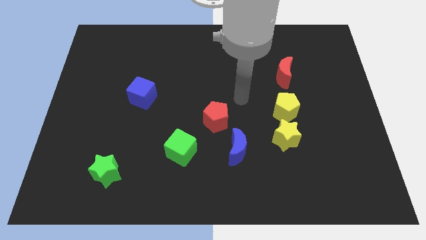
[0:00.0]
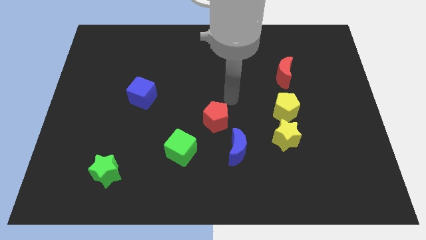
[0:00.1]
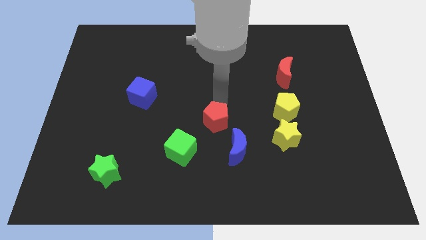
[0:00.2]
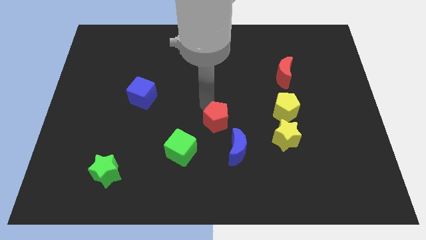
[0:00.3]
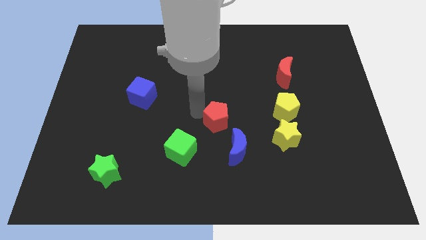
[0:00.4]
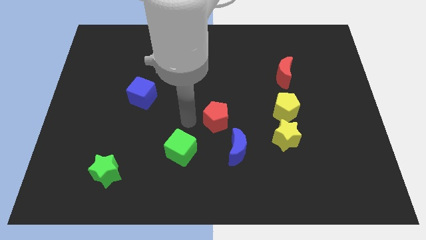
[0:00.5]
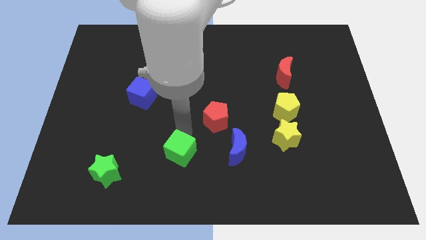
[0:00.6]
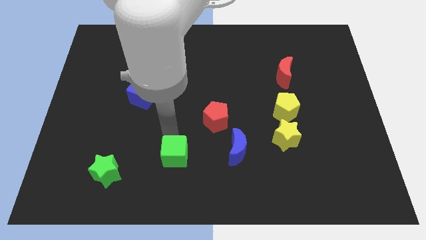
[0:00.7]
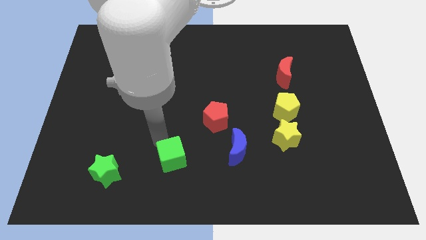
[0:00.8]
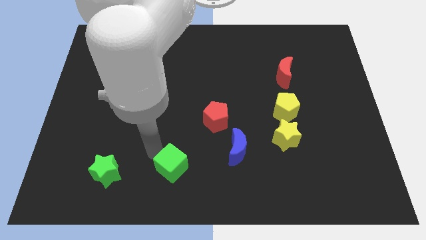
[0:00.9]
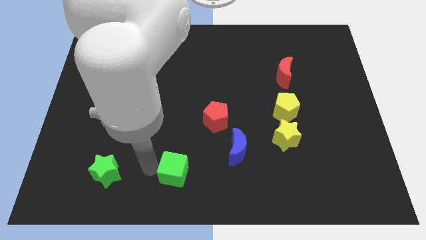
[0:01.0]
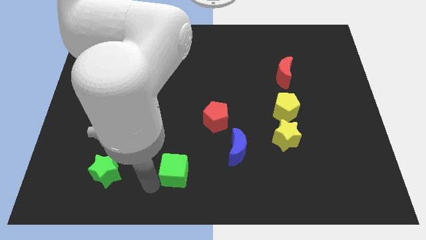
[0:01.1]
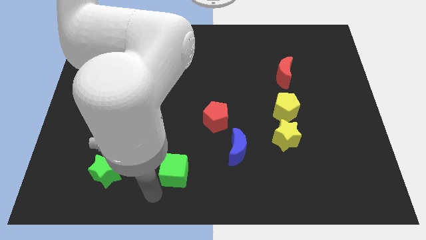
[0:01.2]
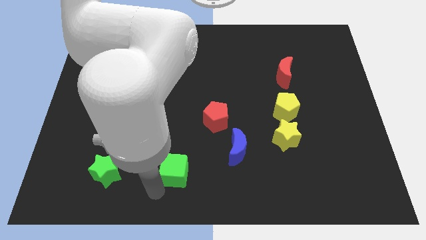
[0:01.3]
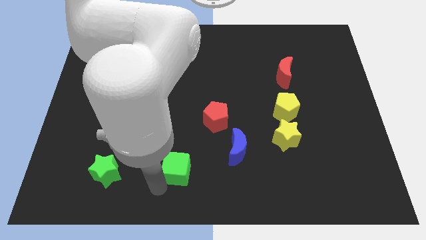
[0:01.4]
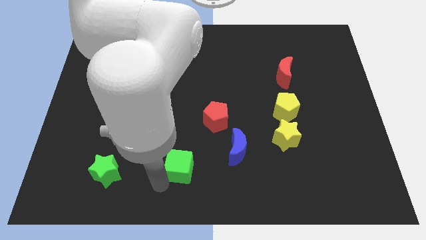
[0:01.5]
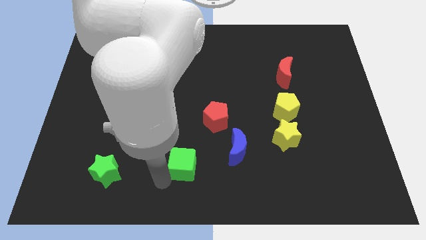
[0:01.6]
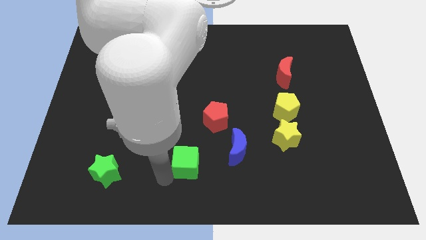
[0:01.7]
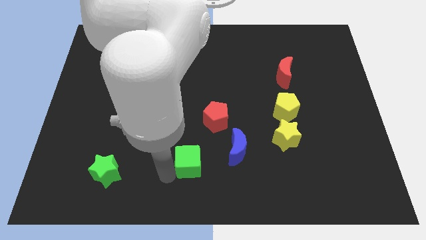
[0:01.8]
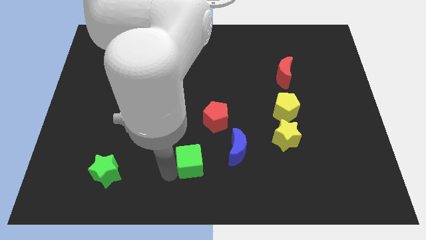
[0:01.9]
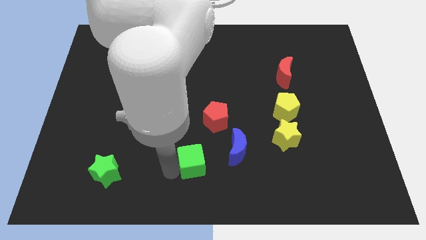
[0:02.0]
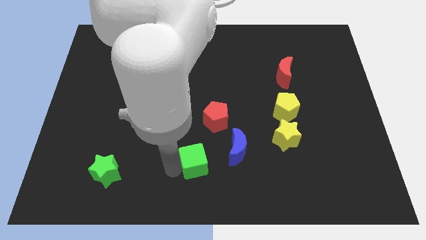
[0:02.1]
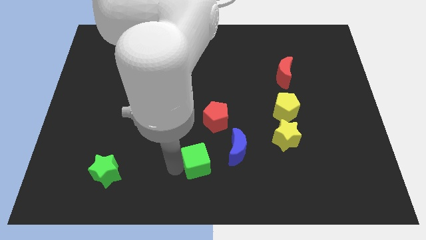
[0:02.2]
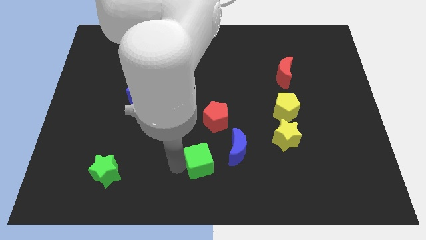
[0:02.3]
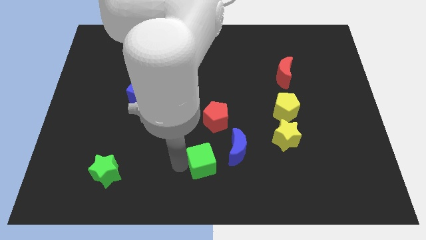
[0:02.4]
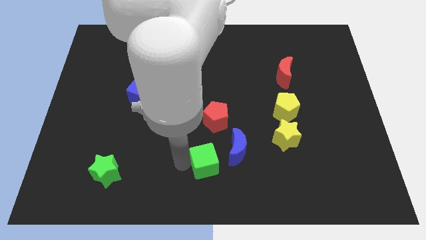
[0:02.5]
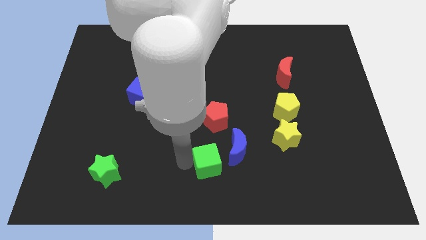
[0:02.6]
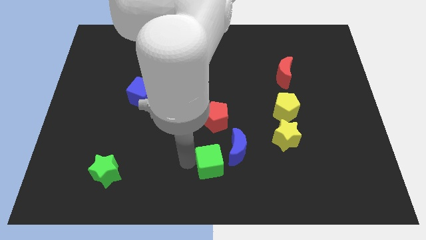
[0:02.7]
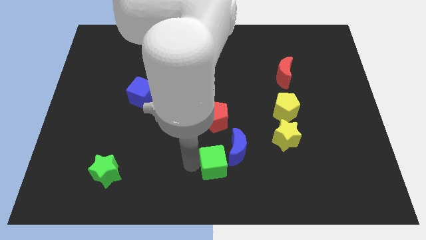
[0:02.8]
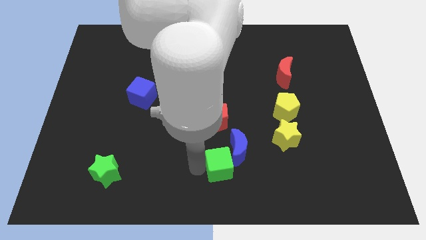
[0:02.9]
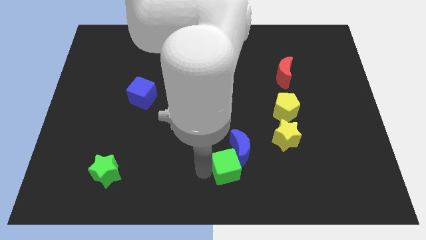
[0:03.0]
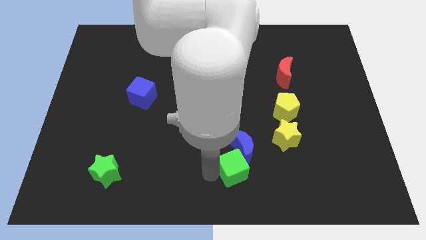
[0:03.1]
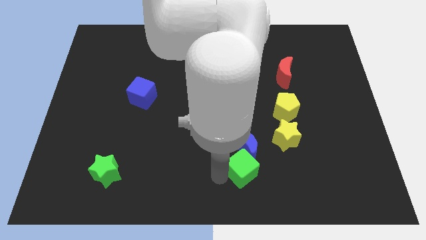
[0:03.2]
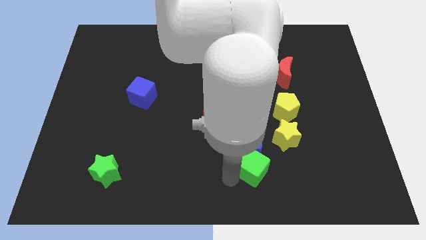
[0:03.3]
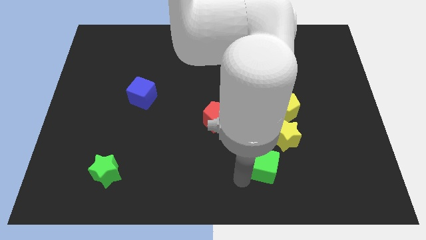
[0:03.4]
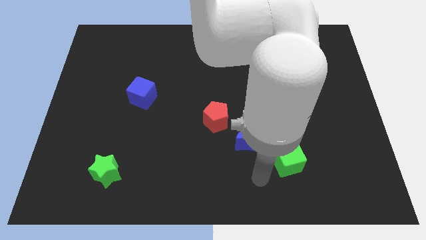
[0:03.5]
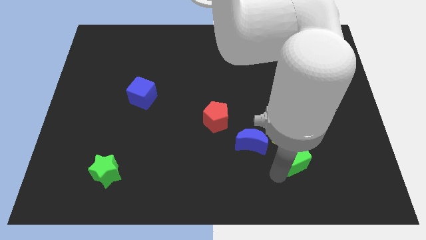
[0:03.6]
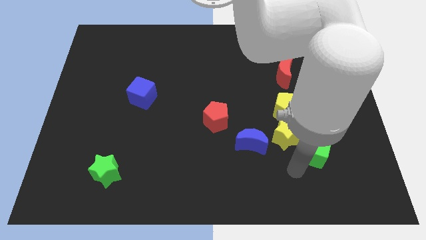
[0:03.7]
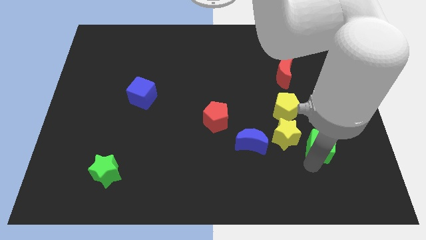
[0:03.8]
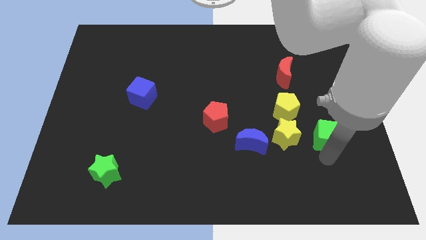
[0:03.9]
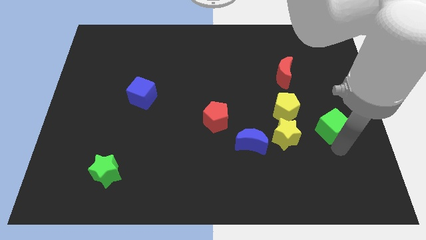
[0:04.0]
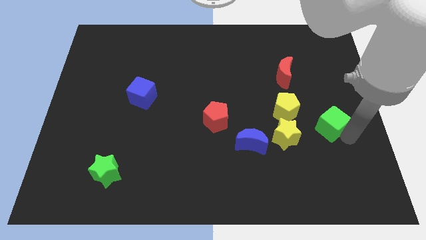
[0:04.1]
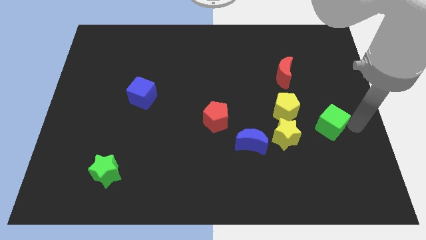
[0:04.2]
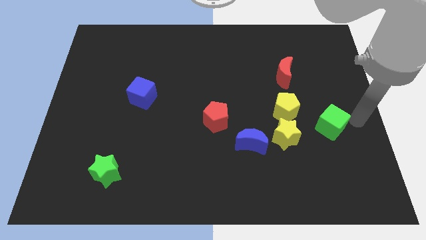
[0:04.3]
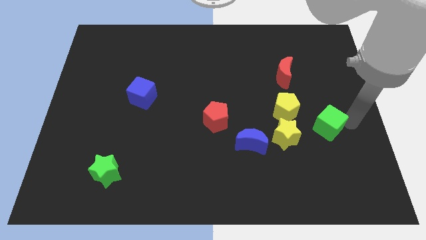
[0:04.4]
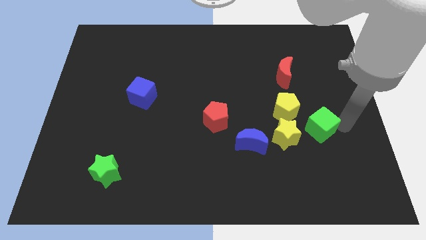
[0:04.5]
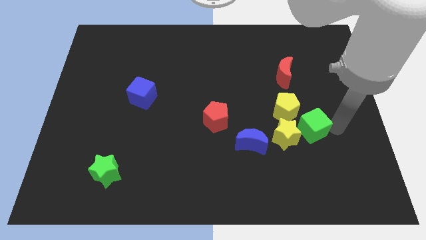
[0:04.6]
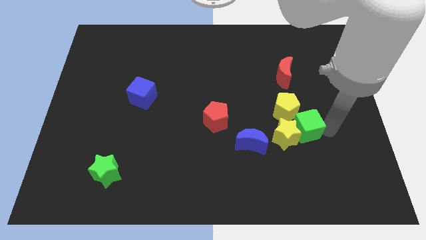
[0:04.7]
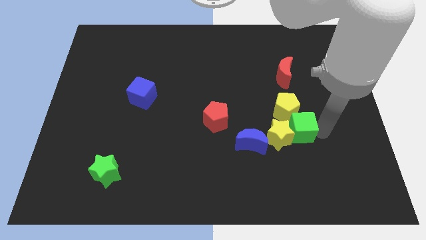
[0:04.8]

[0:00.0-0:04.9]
push the green cube towards the yellow pentagon

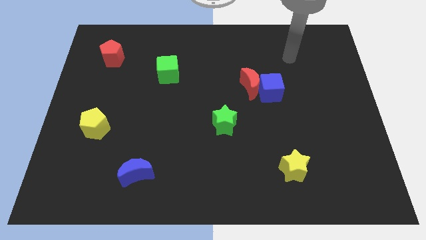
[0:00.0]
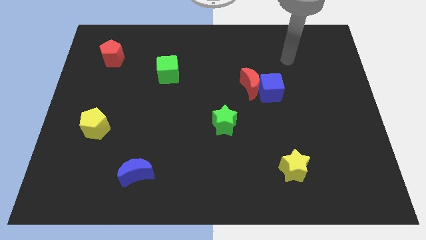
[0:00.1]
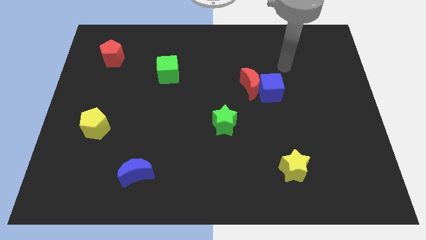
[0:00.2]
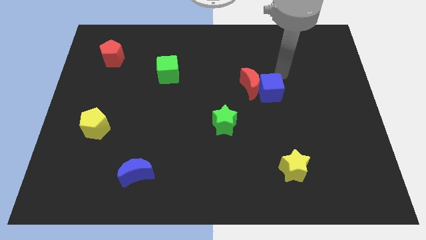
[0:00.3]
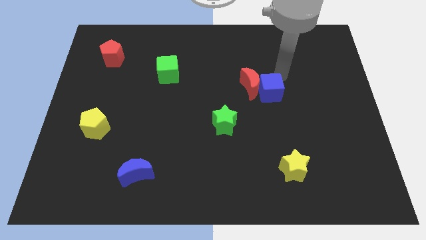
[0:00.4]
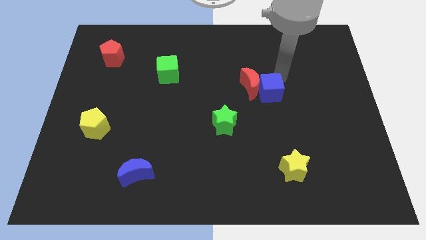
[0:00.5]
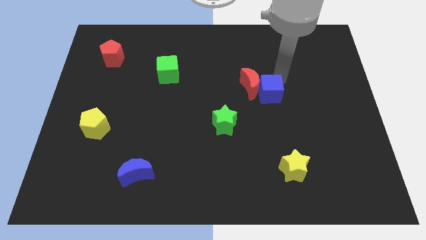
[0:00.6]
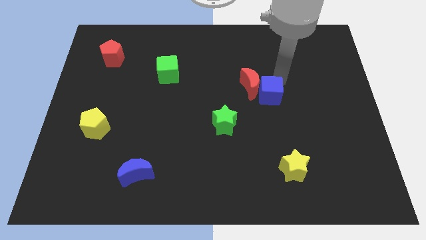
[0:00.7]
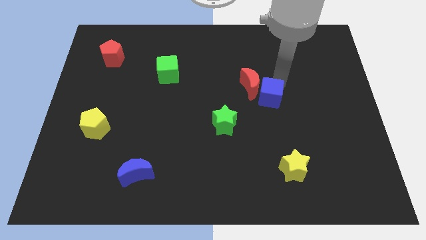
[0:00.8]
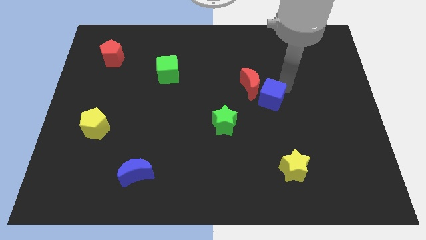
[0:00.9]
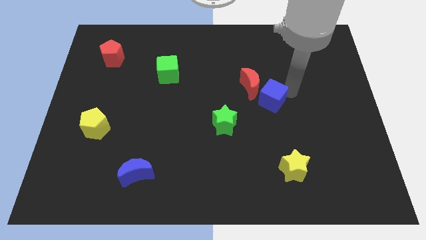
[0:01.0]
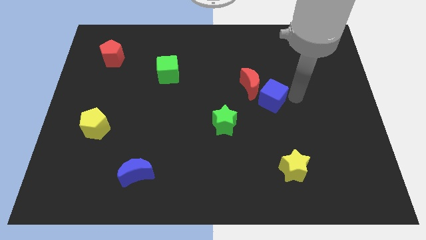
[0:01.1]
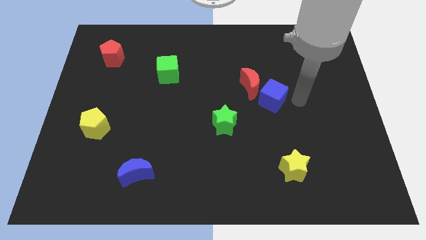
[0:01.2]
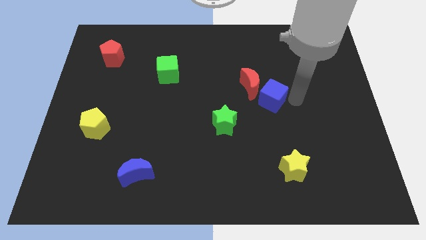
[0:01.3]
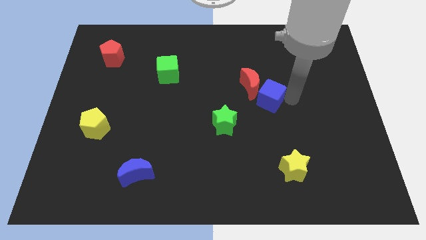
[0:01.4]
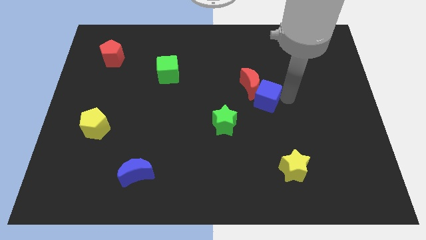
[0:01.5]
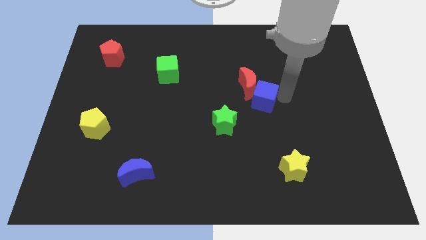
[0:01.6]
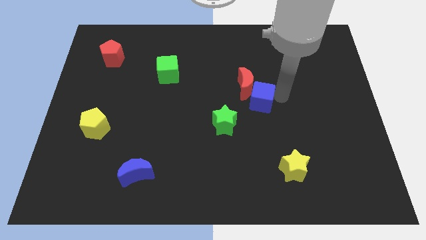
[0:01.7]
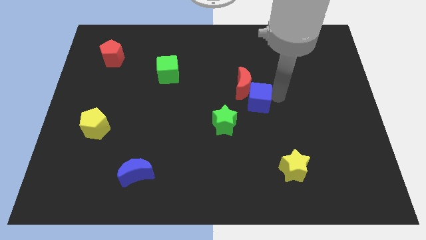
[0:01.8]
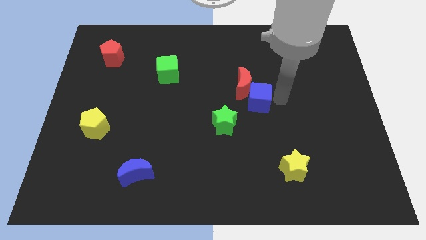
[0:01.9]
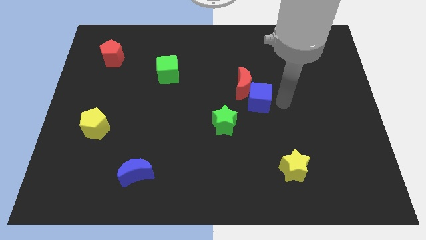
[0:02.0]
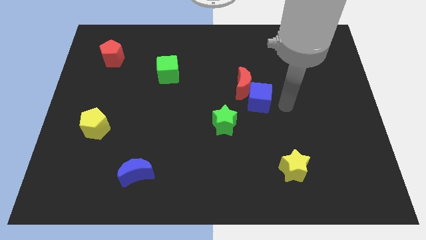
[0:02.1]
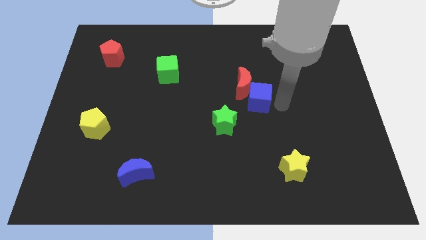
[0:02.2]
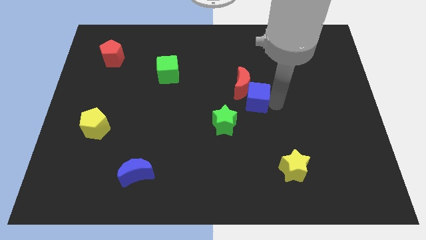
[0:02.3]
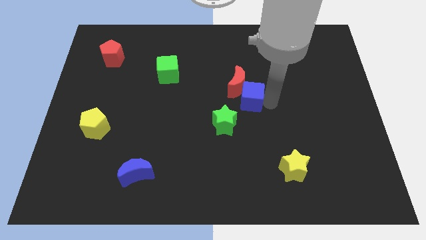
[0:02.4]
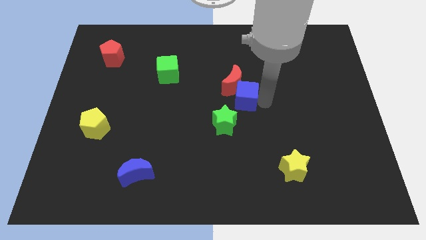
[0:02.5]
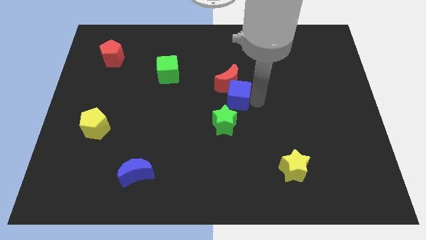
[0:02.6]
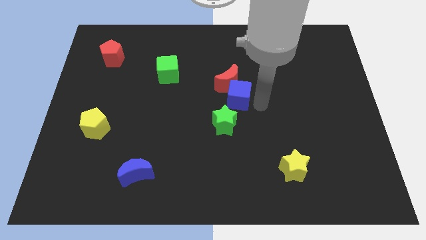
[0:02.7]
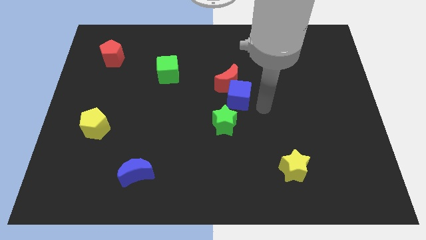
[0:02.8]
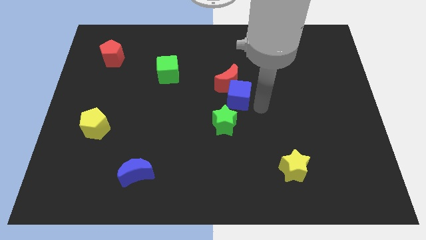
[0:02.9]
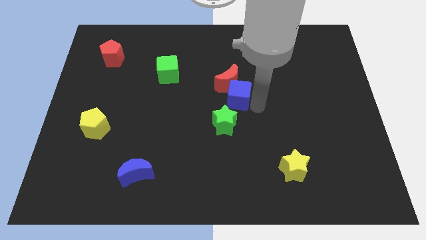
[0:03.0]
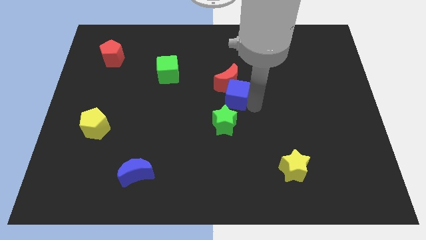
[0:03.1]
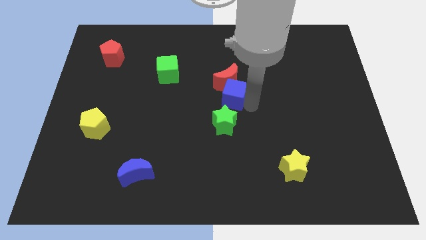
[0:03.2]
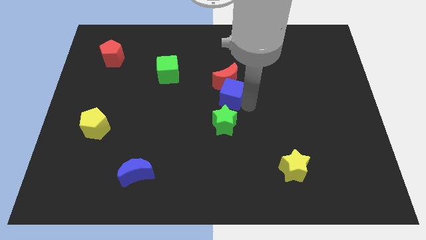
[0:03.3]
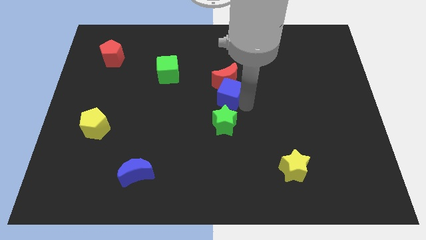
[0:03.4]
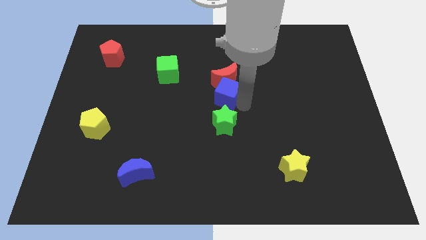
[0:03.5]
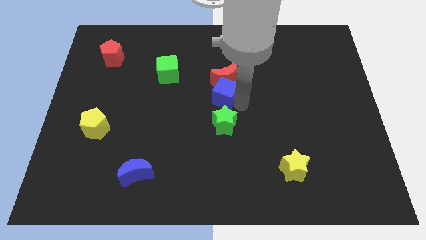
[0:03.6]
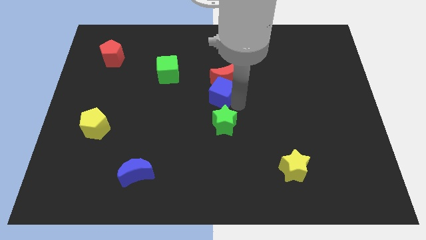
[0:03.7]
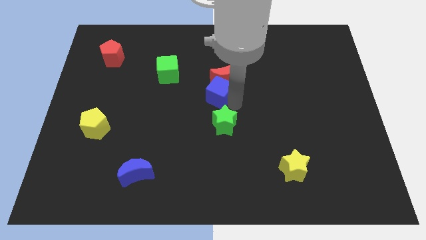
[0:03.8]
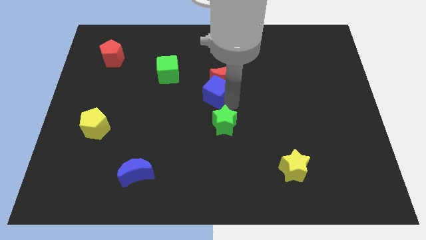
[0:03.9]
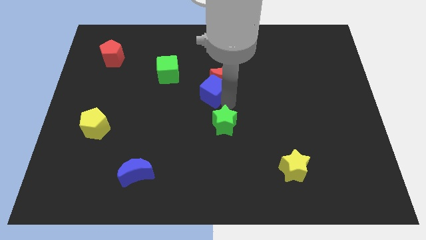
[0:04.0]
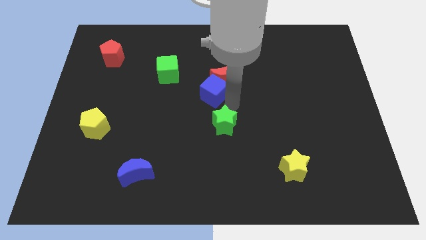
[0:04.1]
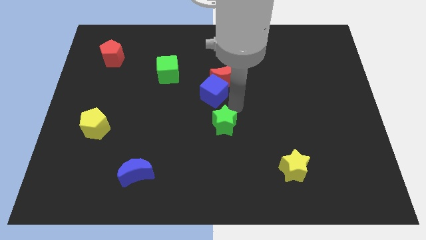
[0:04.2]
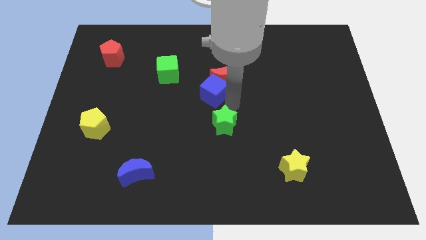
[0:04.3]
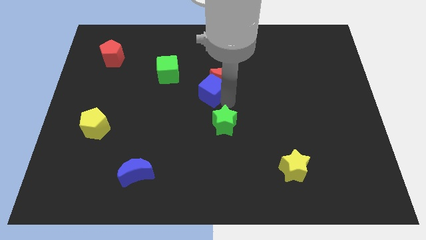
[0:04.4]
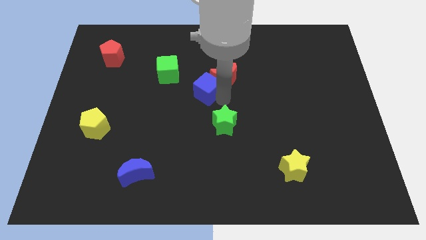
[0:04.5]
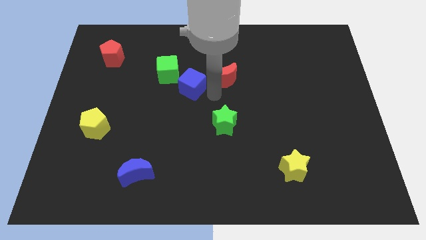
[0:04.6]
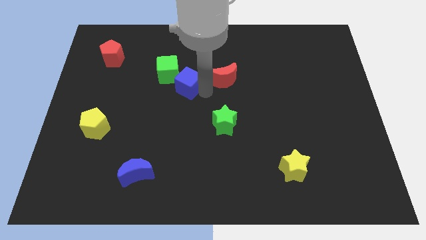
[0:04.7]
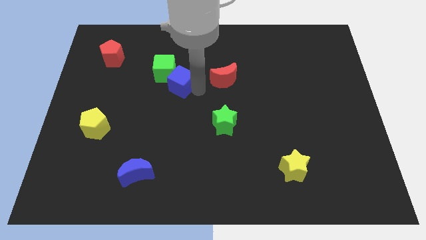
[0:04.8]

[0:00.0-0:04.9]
put the blue cube to the green cube
